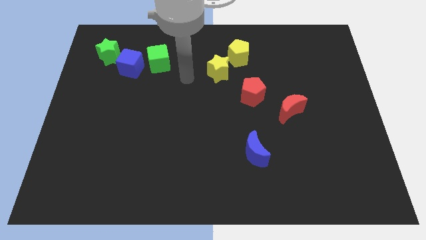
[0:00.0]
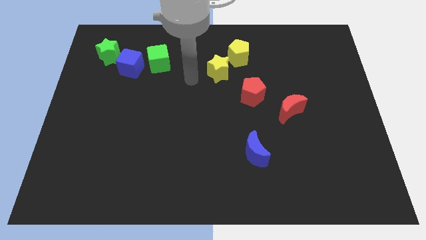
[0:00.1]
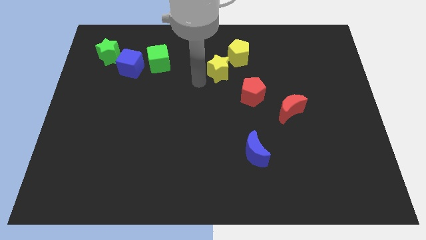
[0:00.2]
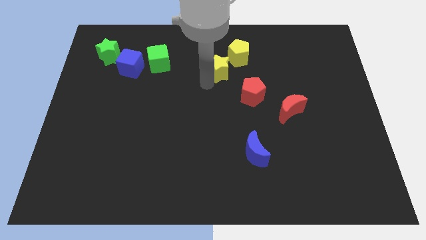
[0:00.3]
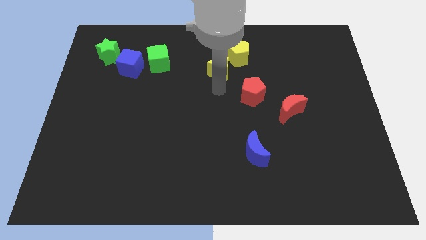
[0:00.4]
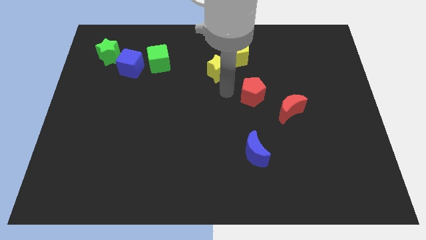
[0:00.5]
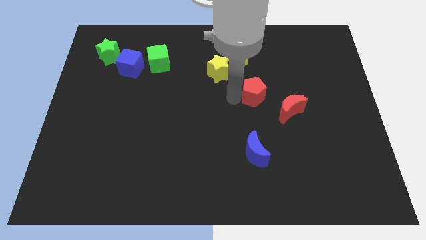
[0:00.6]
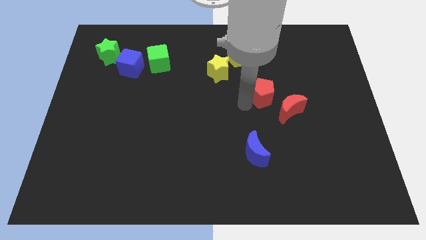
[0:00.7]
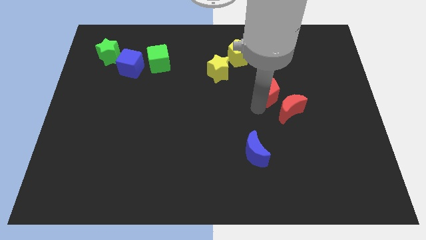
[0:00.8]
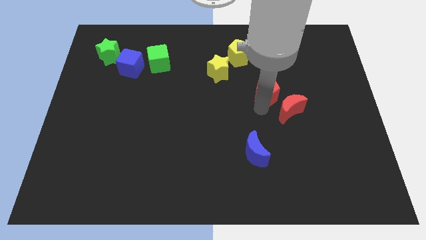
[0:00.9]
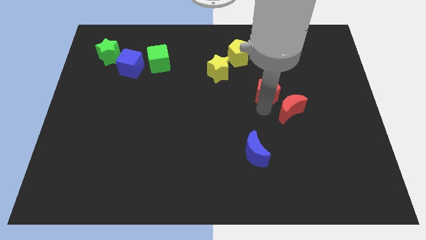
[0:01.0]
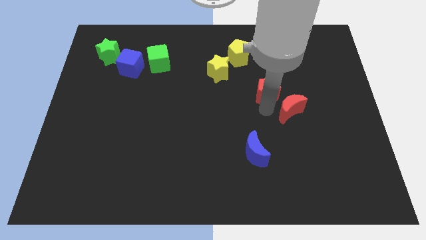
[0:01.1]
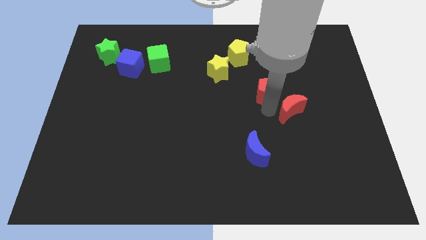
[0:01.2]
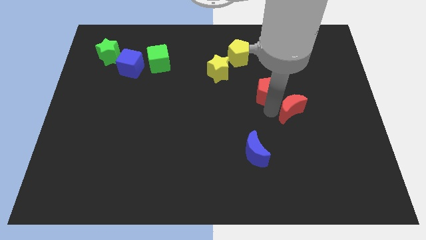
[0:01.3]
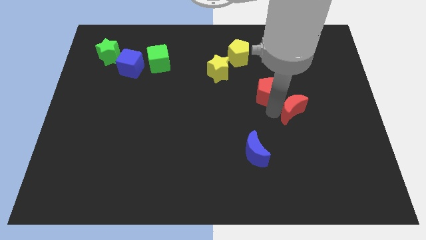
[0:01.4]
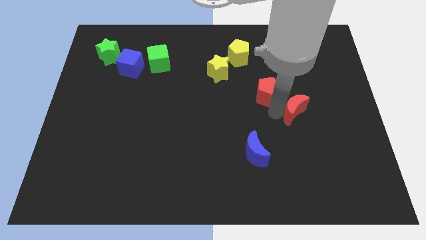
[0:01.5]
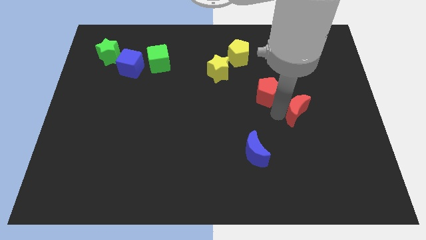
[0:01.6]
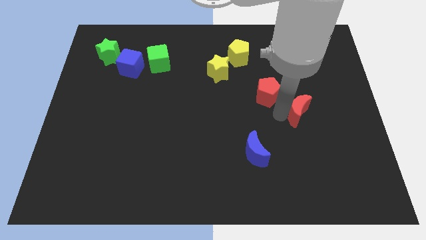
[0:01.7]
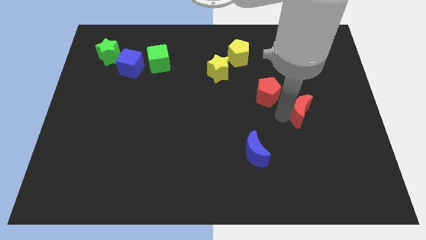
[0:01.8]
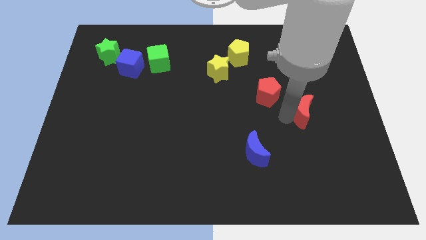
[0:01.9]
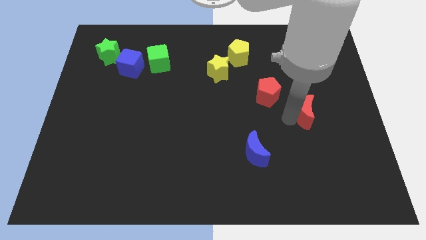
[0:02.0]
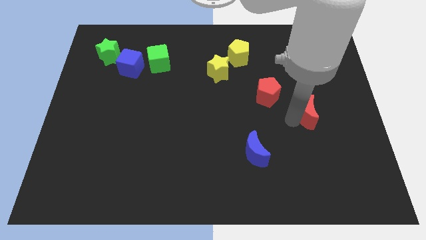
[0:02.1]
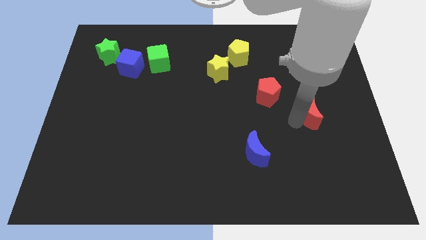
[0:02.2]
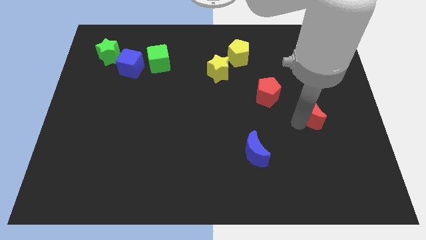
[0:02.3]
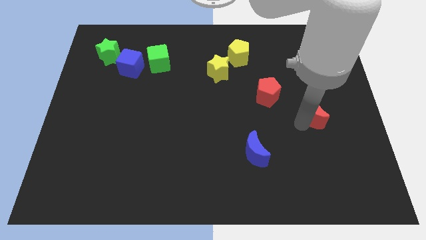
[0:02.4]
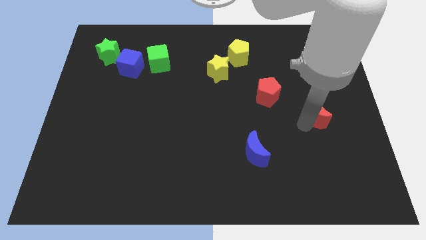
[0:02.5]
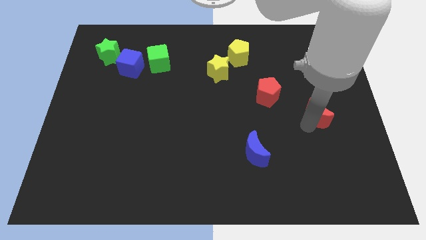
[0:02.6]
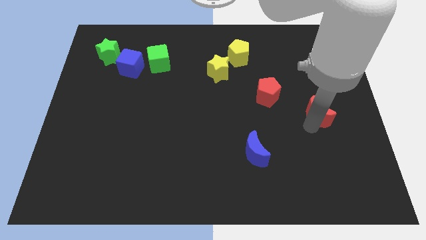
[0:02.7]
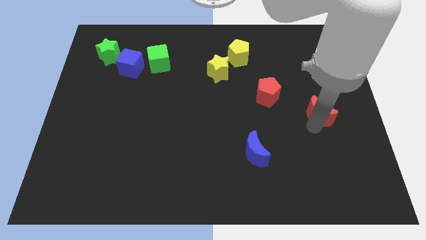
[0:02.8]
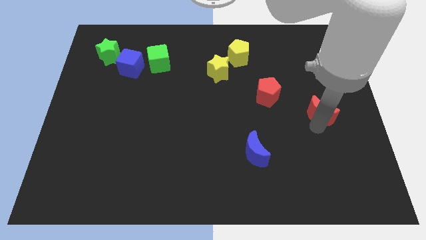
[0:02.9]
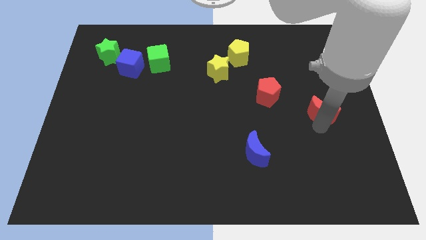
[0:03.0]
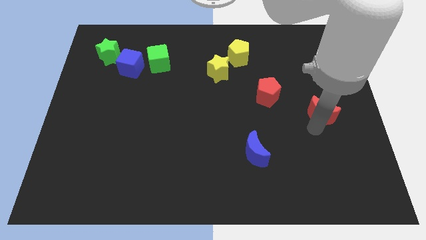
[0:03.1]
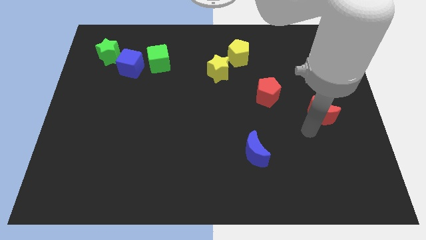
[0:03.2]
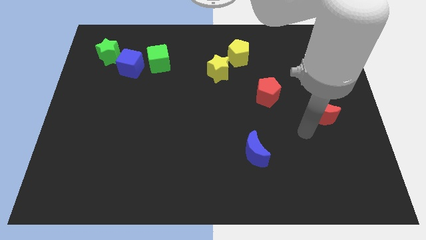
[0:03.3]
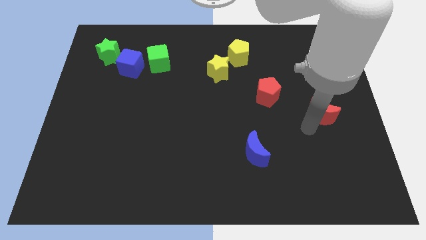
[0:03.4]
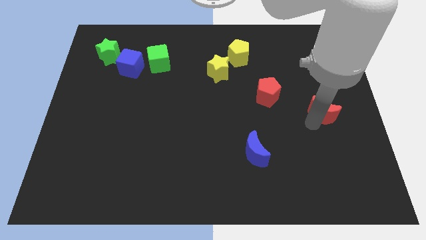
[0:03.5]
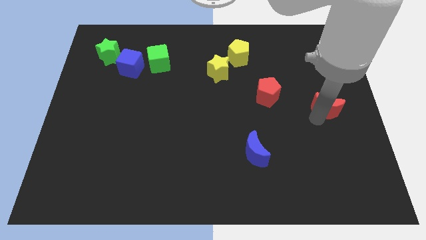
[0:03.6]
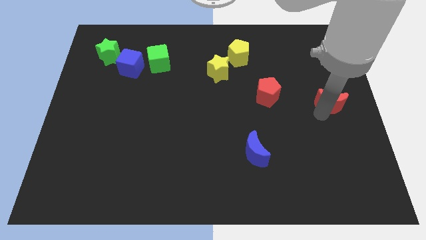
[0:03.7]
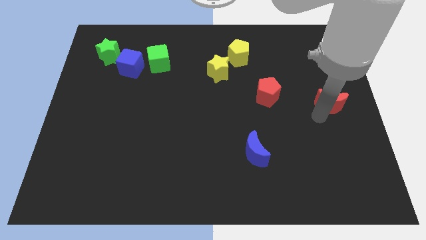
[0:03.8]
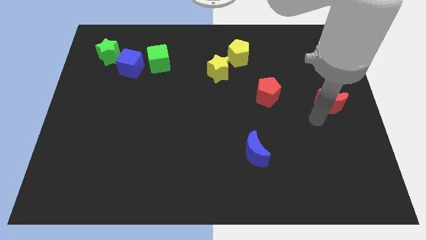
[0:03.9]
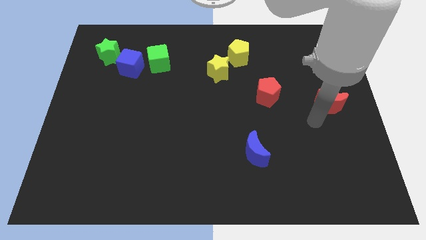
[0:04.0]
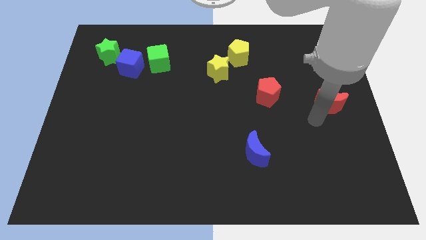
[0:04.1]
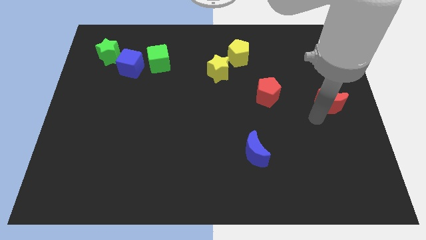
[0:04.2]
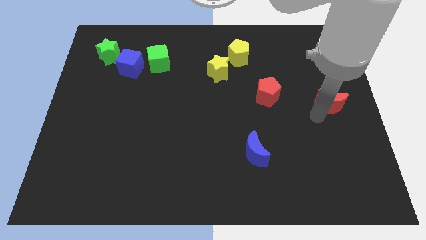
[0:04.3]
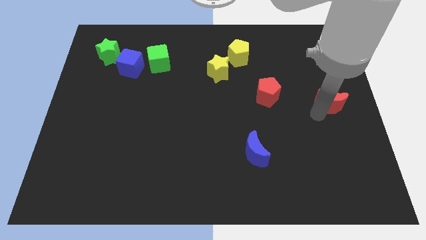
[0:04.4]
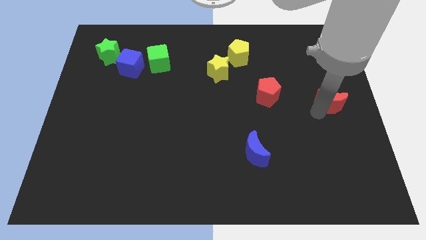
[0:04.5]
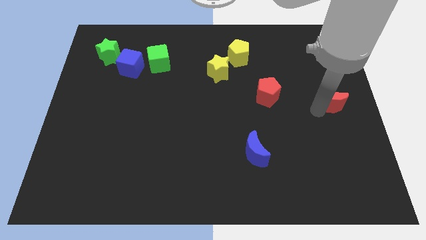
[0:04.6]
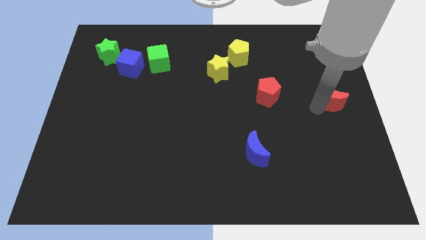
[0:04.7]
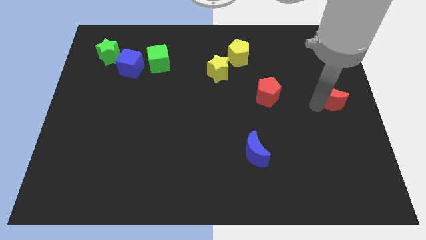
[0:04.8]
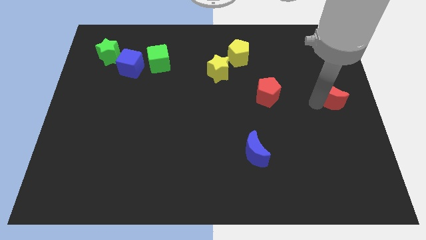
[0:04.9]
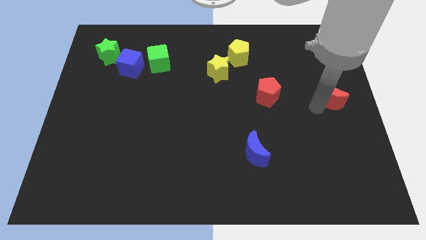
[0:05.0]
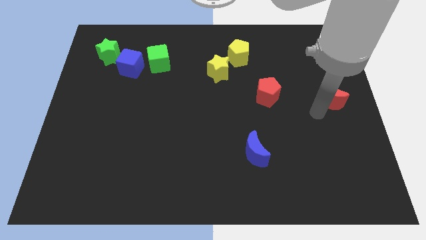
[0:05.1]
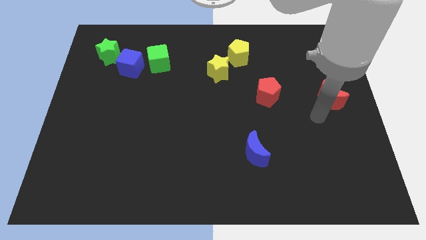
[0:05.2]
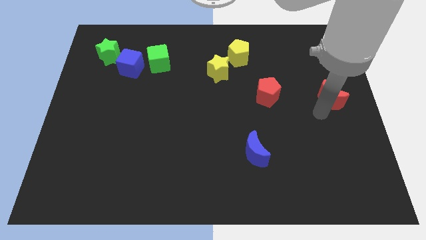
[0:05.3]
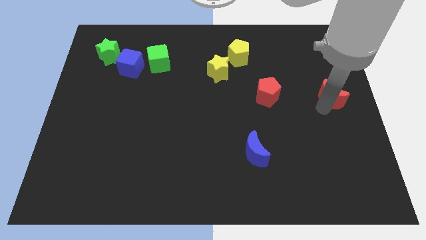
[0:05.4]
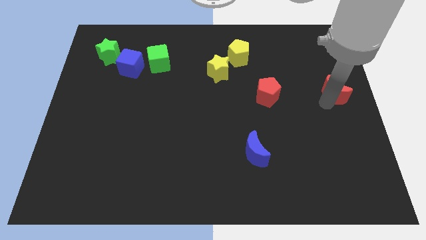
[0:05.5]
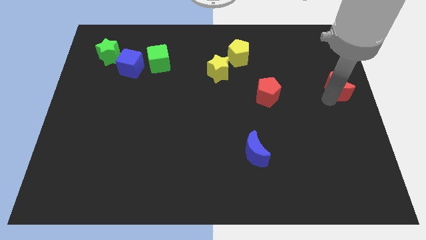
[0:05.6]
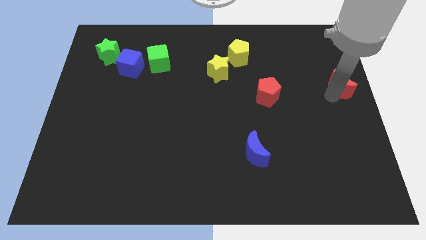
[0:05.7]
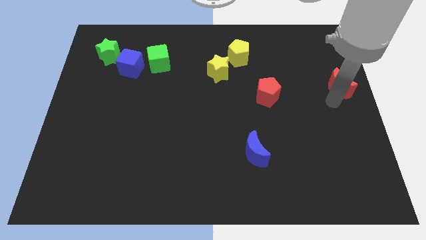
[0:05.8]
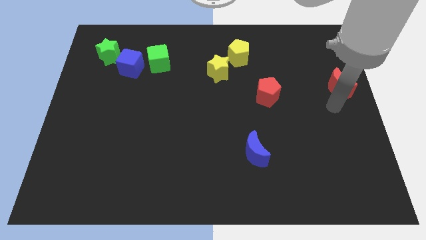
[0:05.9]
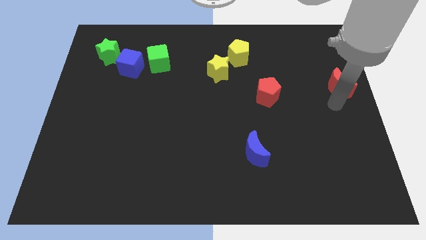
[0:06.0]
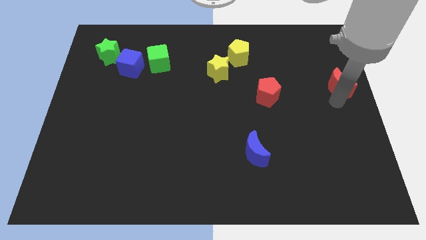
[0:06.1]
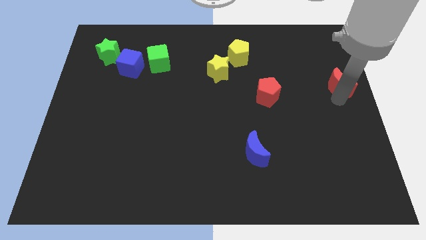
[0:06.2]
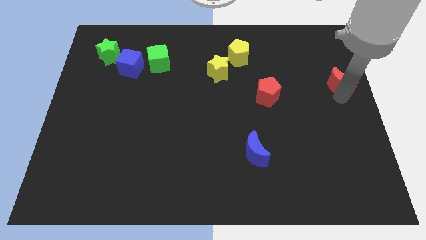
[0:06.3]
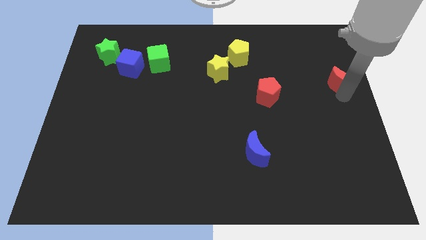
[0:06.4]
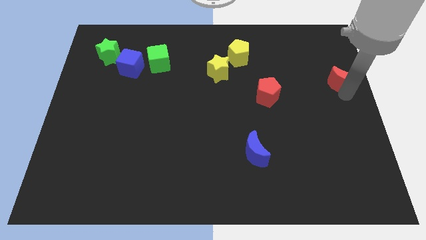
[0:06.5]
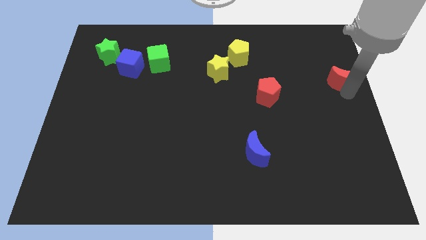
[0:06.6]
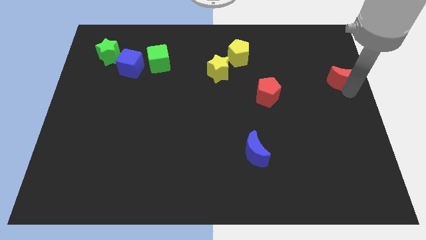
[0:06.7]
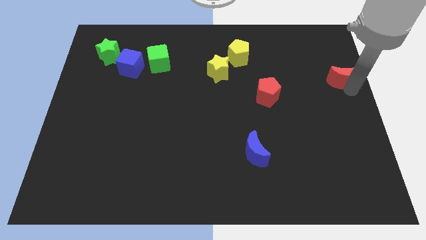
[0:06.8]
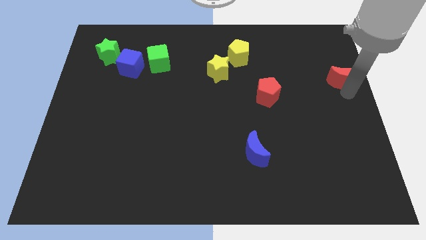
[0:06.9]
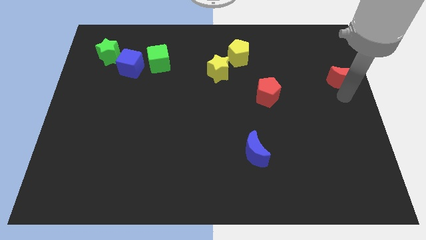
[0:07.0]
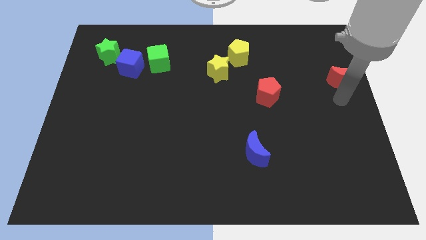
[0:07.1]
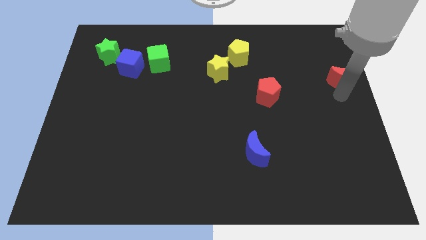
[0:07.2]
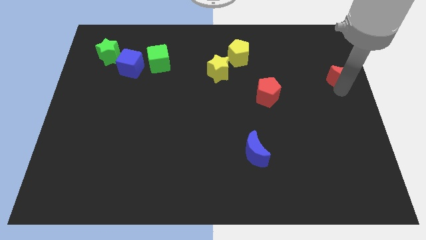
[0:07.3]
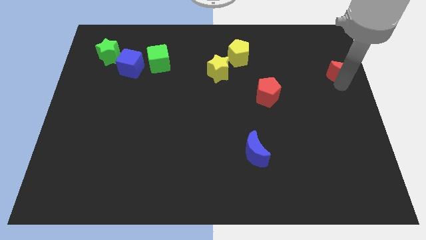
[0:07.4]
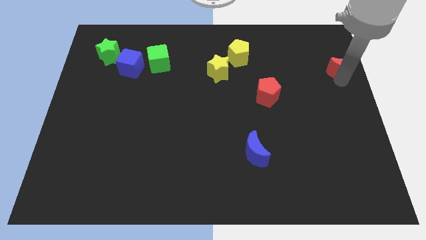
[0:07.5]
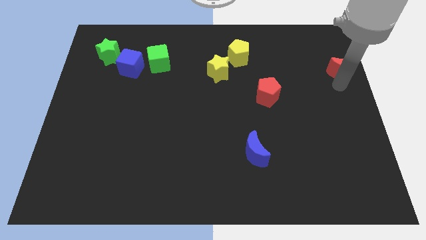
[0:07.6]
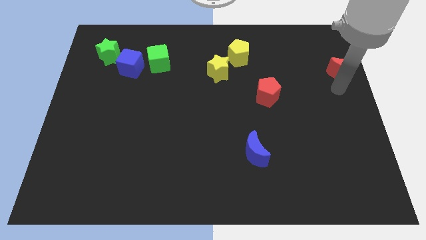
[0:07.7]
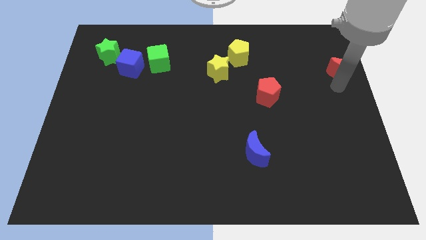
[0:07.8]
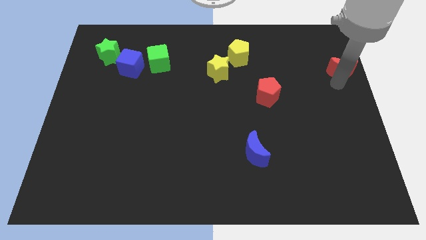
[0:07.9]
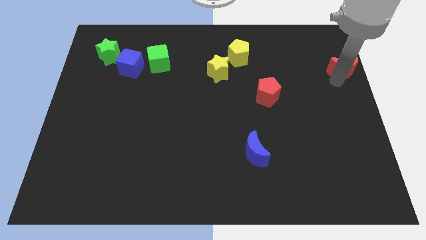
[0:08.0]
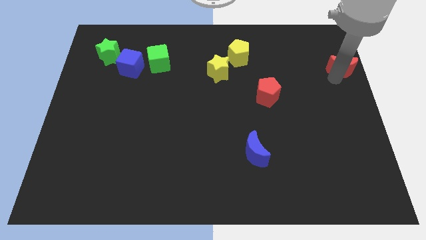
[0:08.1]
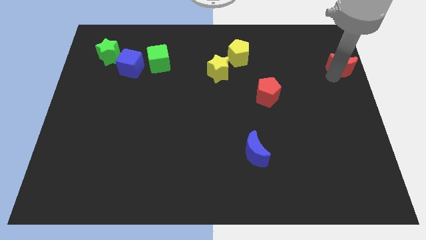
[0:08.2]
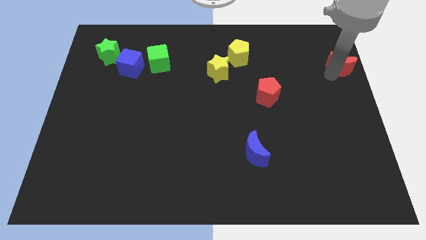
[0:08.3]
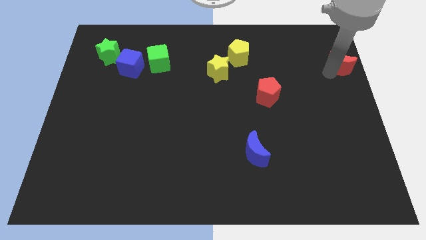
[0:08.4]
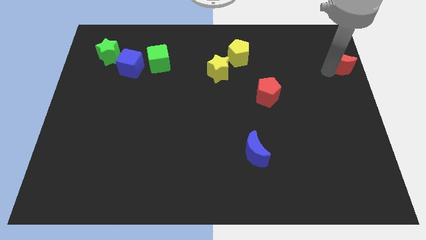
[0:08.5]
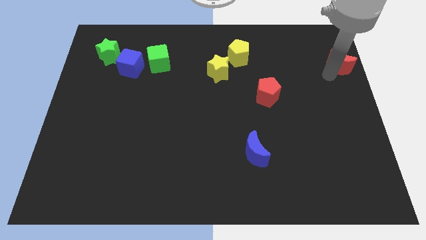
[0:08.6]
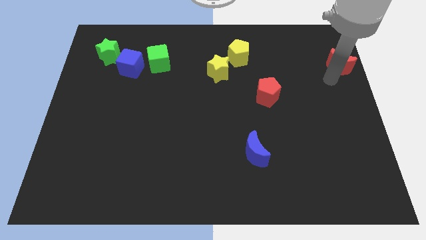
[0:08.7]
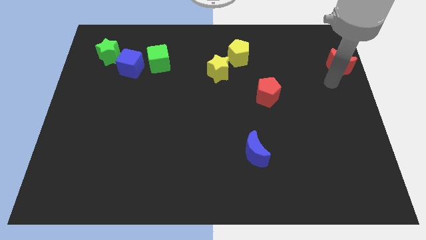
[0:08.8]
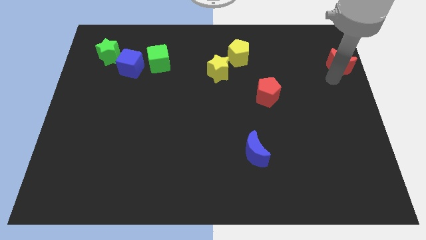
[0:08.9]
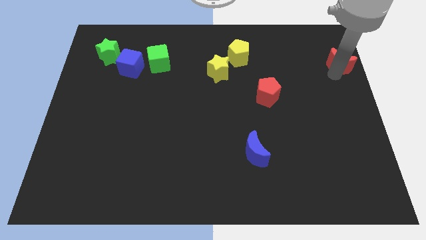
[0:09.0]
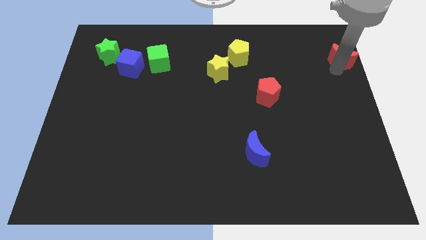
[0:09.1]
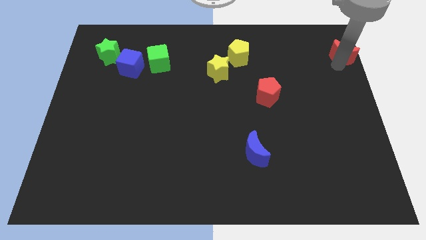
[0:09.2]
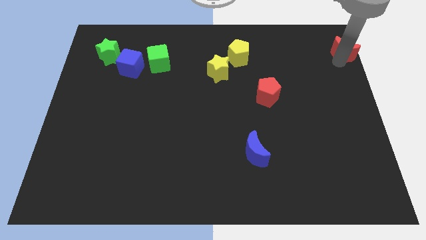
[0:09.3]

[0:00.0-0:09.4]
move the red moon to the upper right corner
